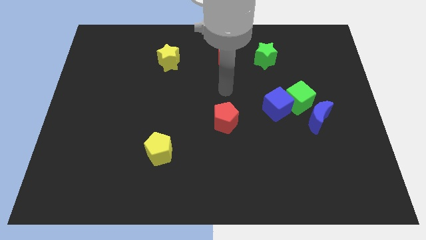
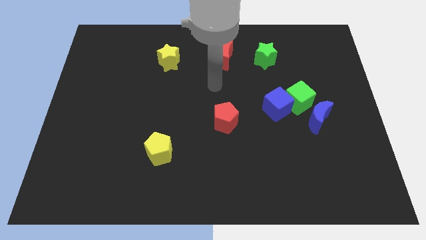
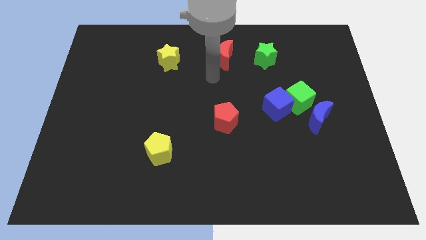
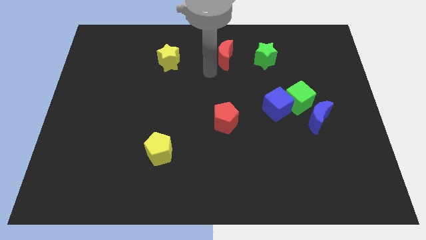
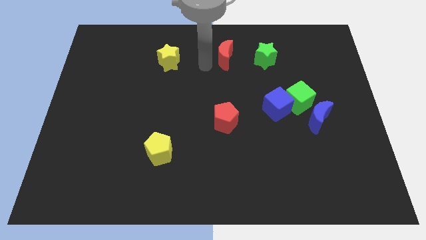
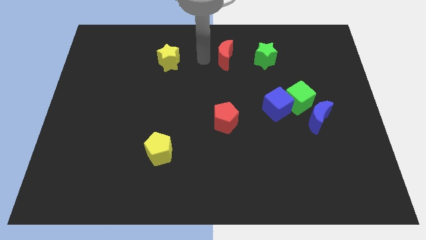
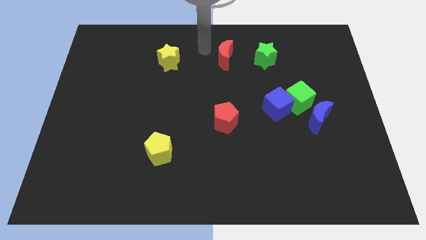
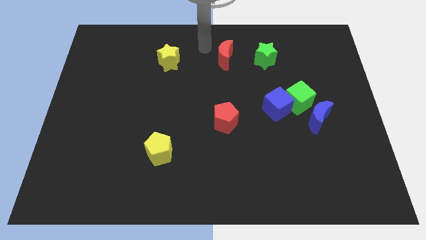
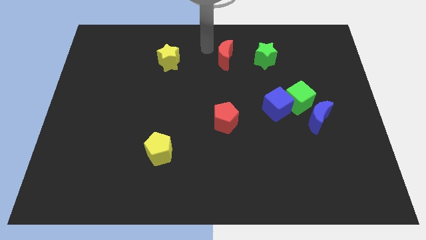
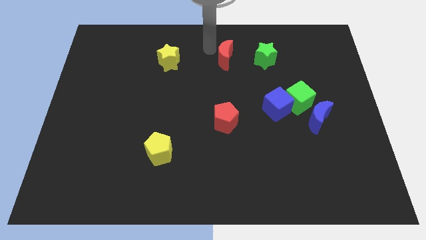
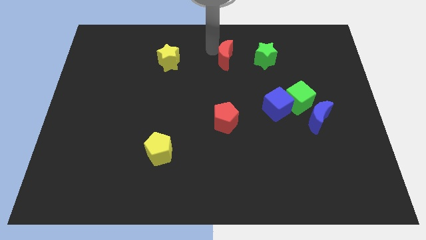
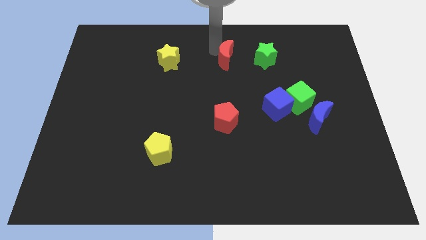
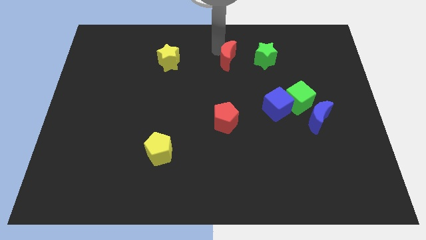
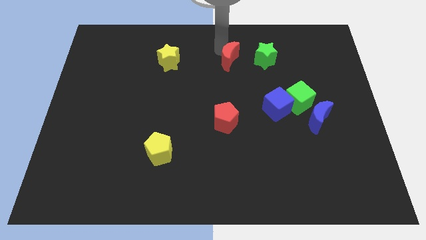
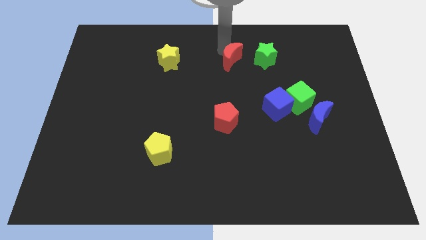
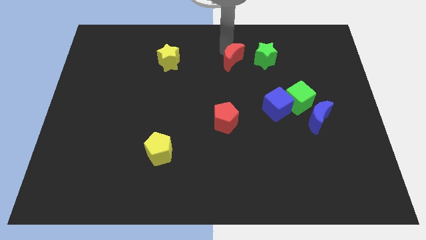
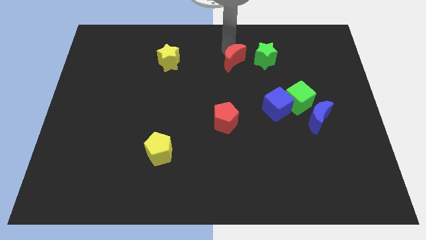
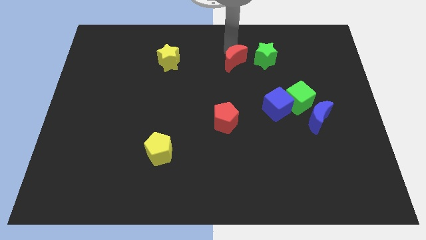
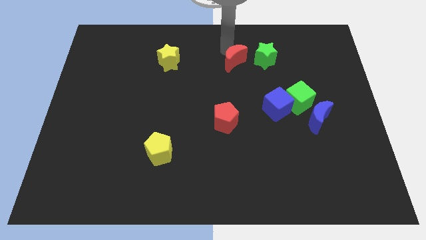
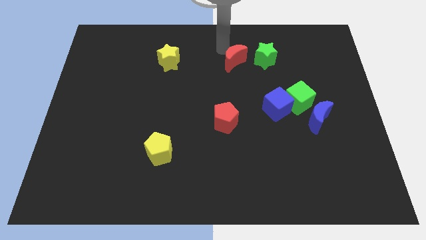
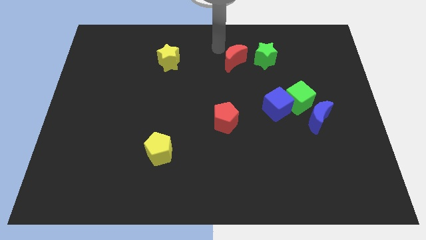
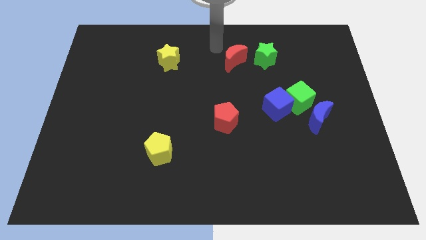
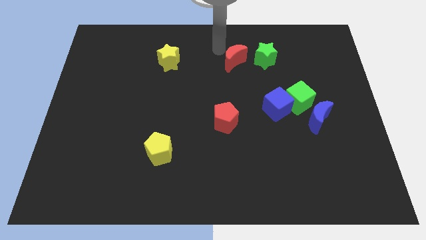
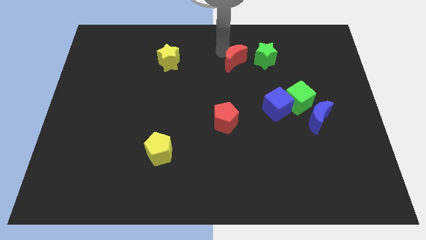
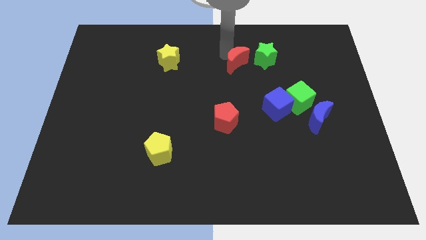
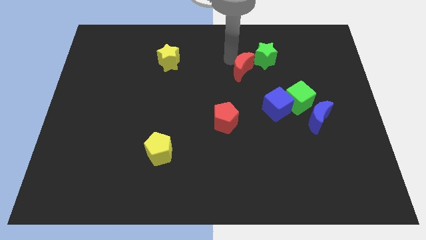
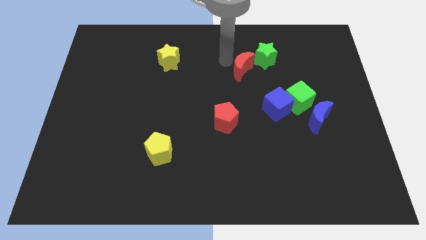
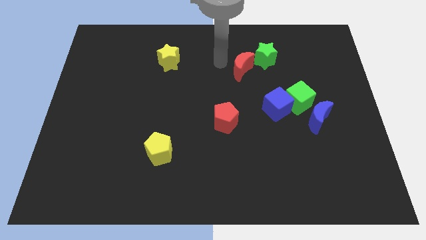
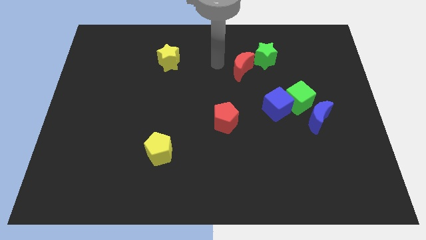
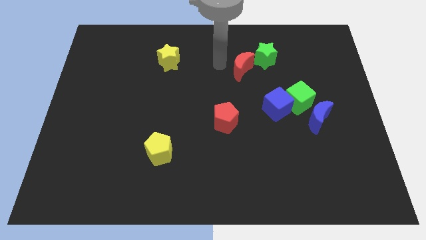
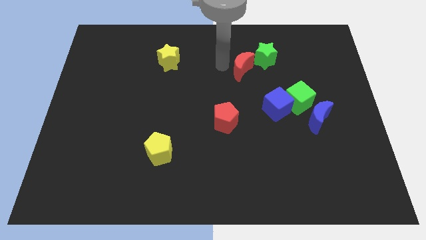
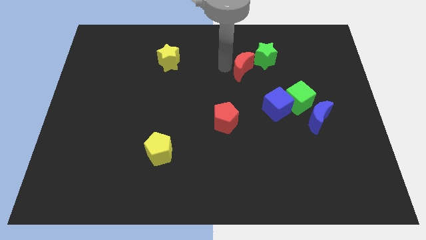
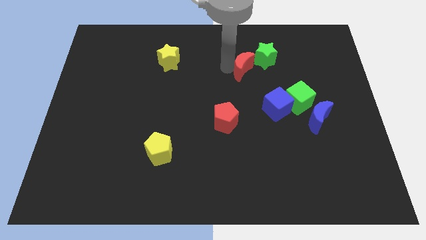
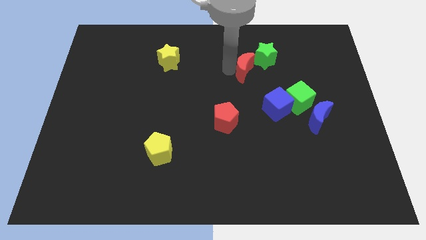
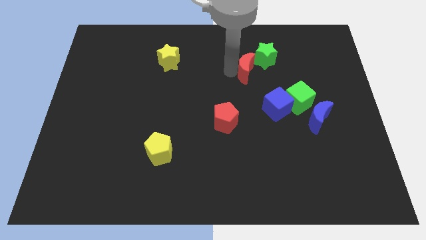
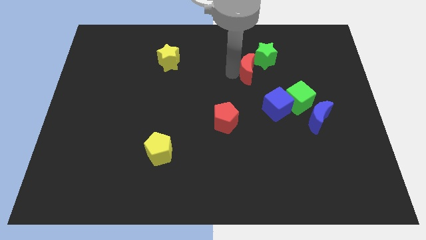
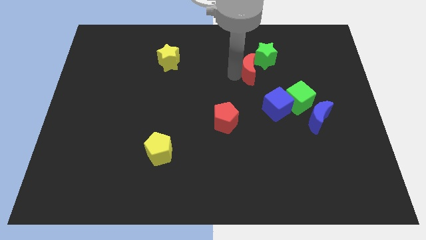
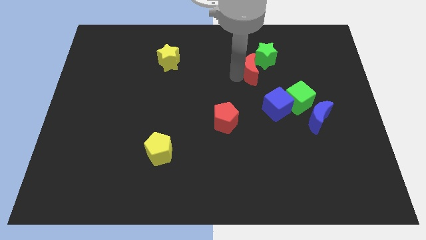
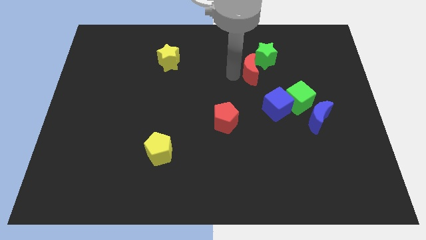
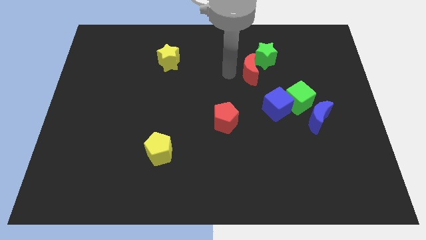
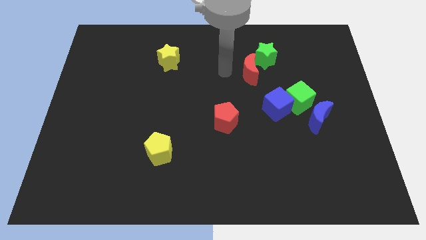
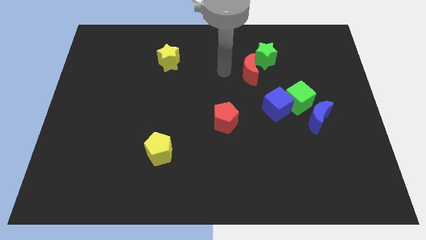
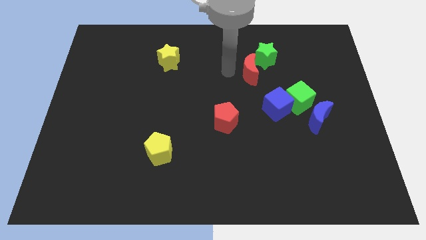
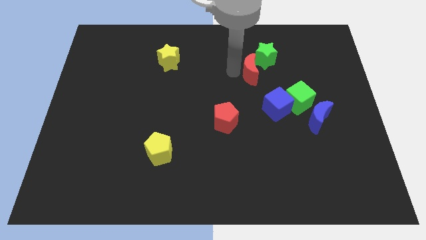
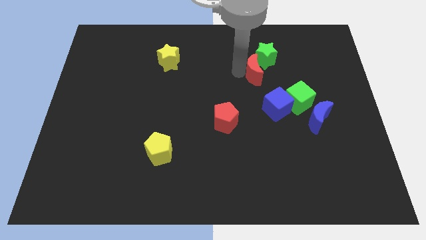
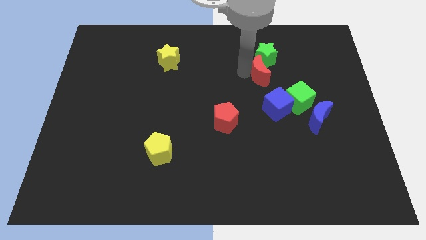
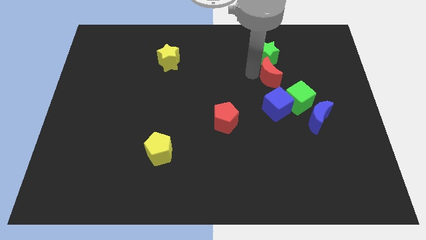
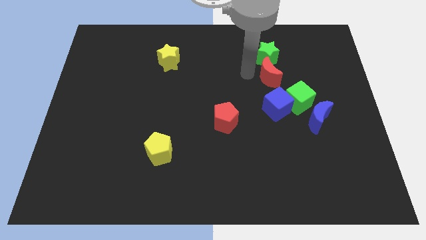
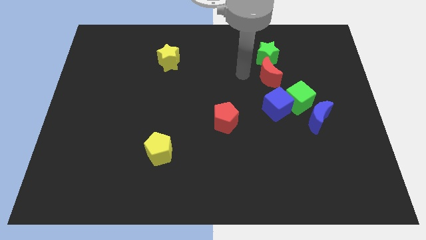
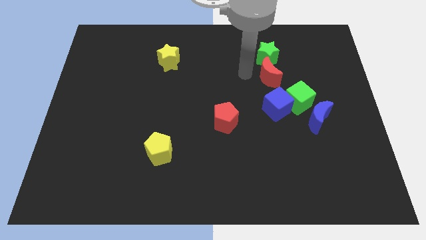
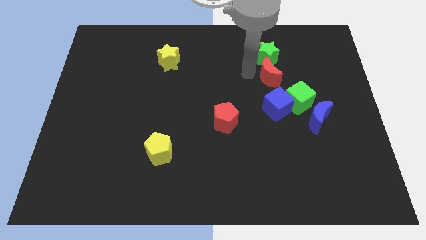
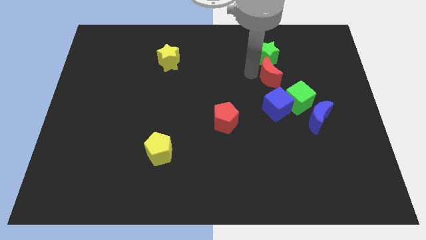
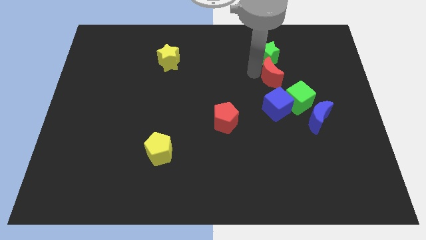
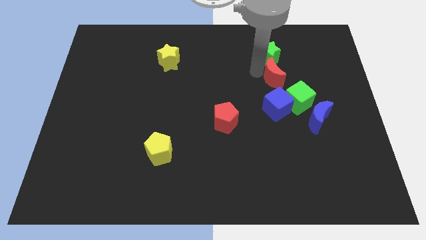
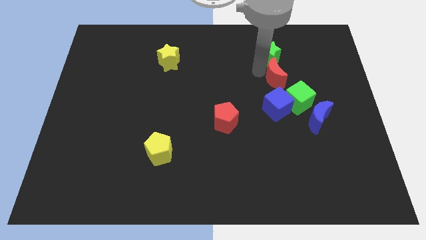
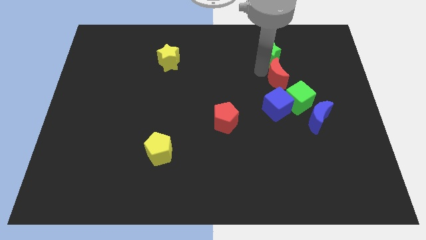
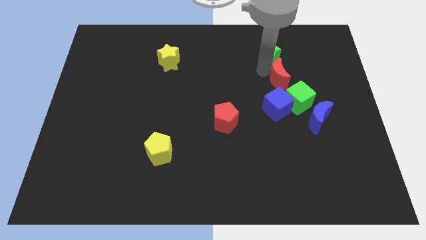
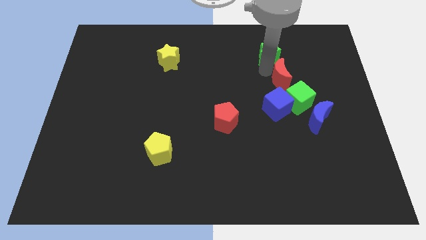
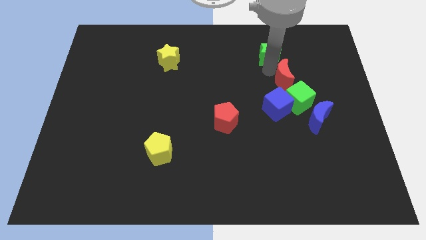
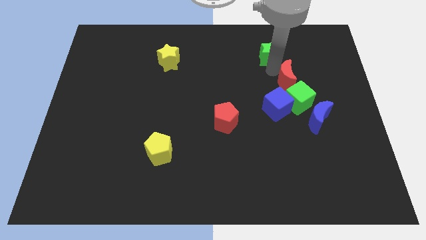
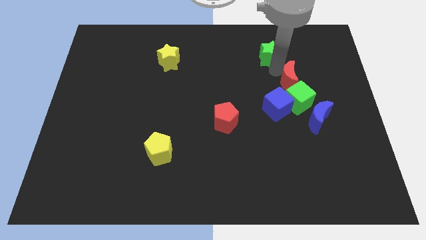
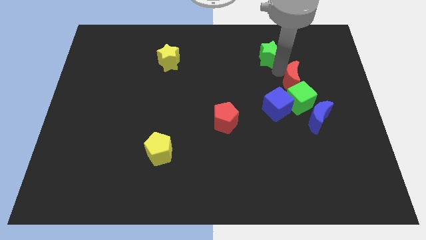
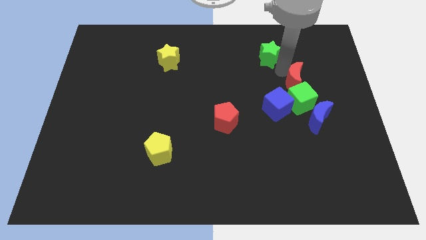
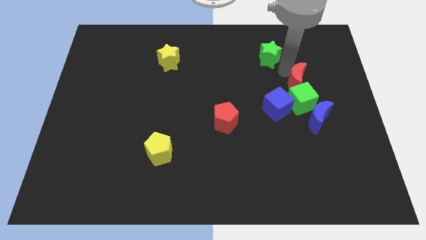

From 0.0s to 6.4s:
move the red moon to the top right side of the green cube
